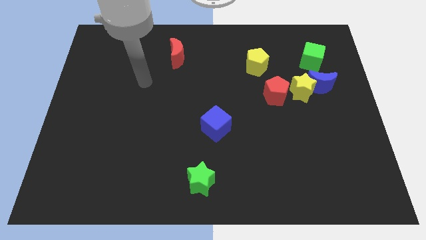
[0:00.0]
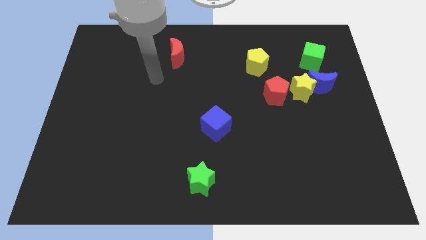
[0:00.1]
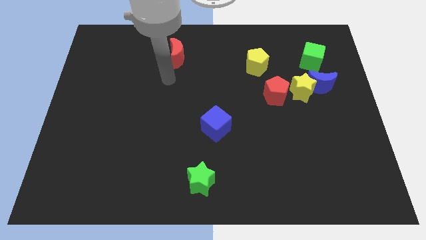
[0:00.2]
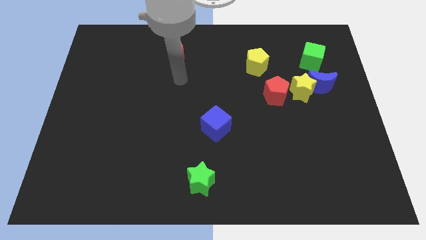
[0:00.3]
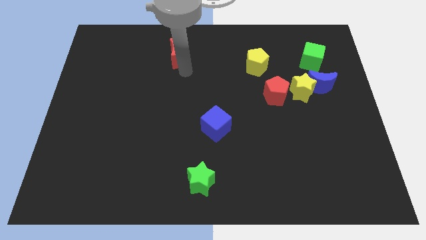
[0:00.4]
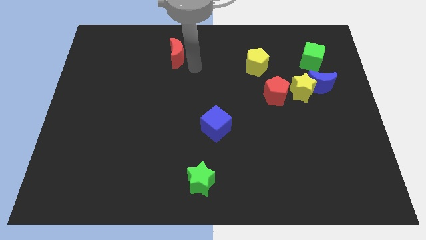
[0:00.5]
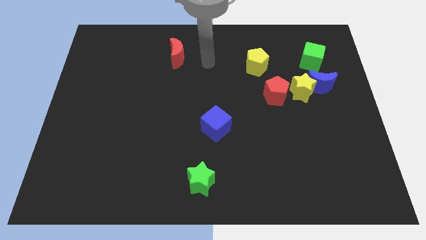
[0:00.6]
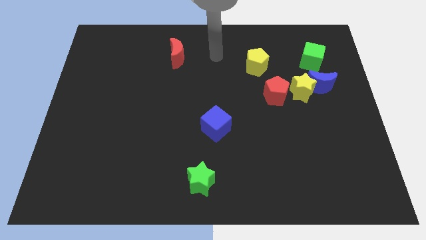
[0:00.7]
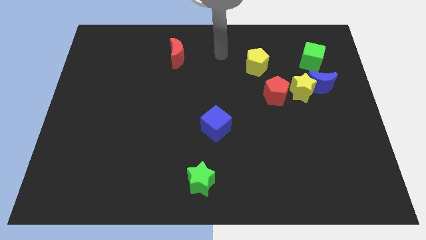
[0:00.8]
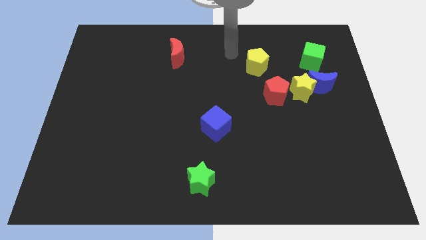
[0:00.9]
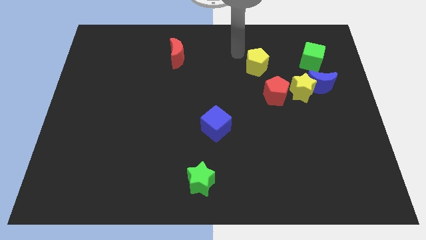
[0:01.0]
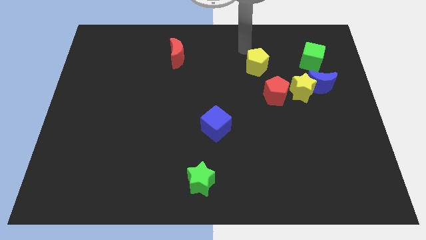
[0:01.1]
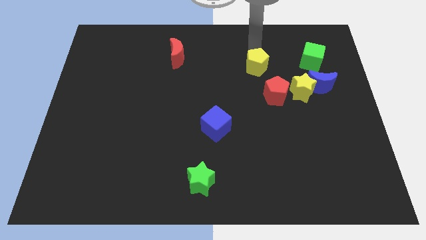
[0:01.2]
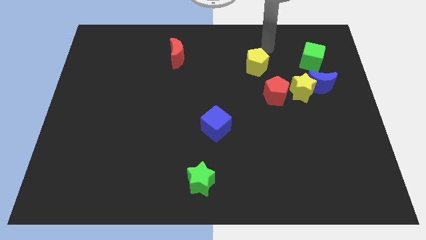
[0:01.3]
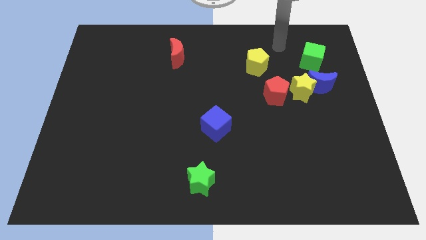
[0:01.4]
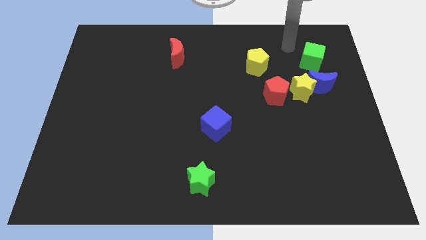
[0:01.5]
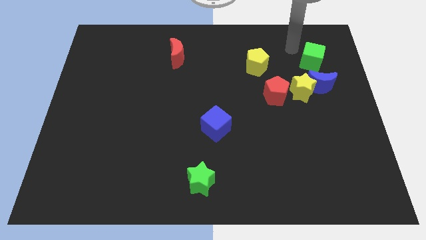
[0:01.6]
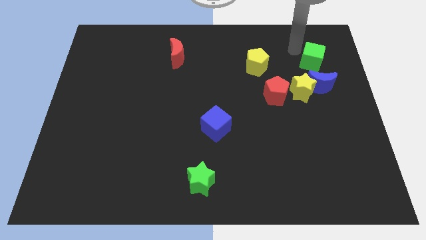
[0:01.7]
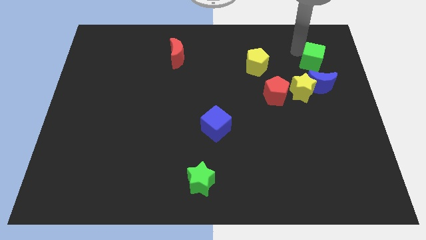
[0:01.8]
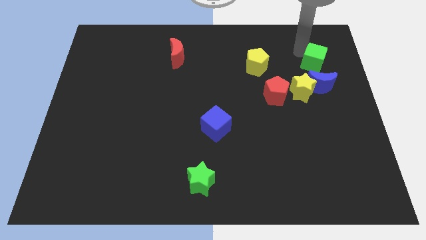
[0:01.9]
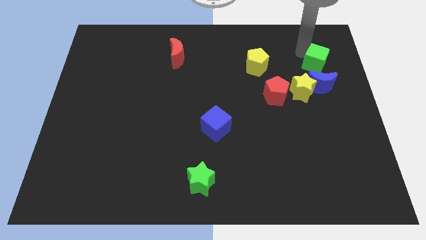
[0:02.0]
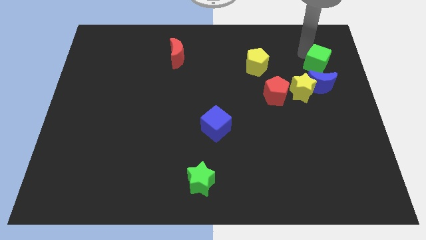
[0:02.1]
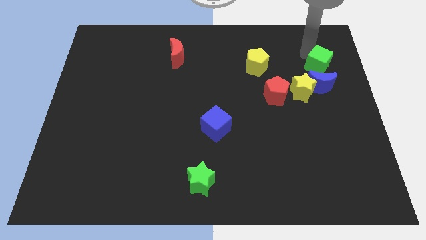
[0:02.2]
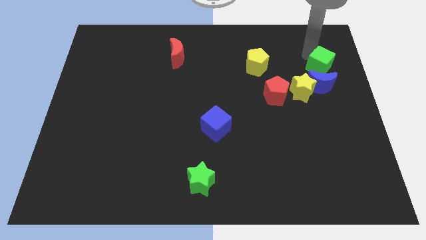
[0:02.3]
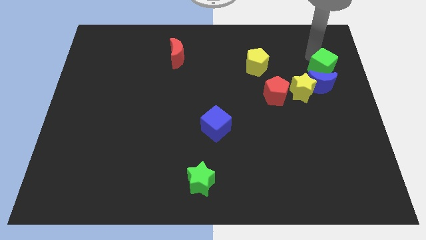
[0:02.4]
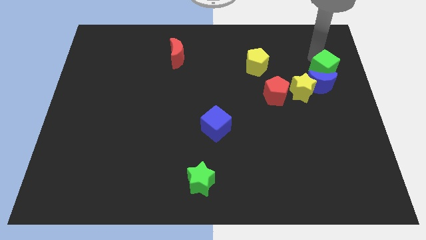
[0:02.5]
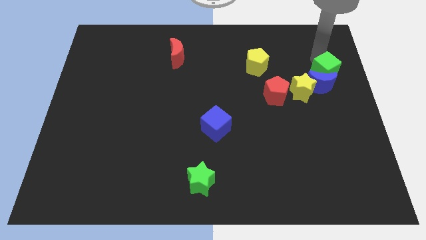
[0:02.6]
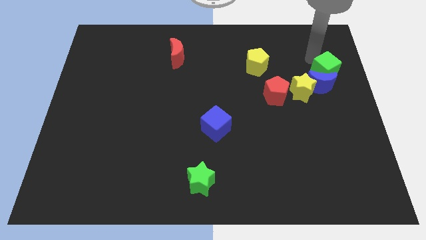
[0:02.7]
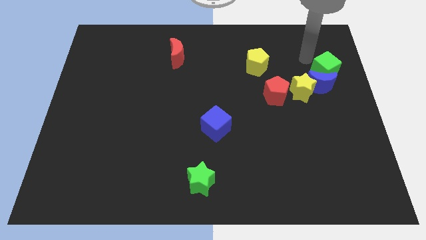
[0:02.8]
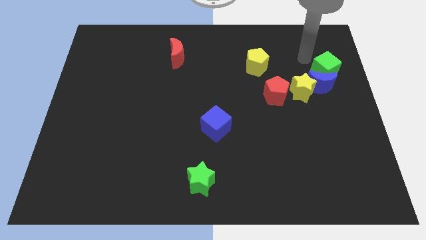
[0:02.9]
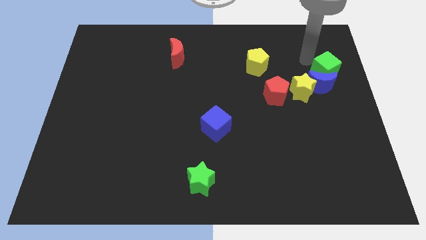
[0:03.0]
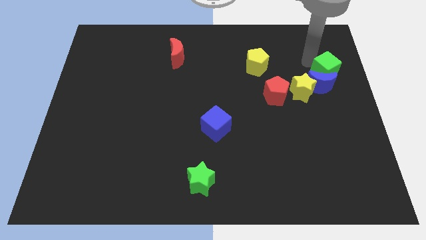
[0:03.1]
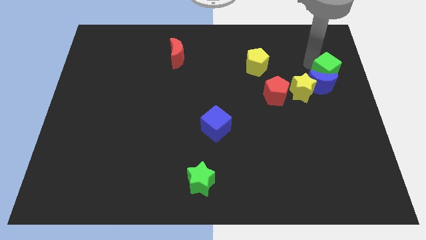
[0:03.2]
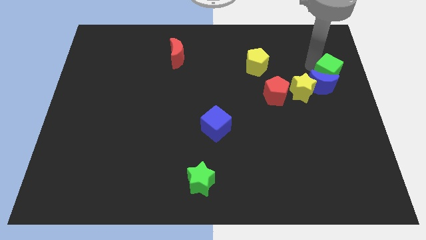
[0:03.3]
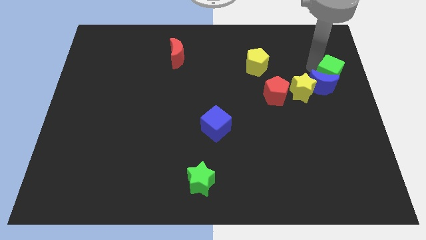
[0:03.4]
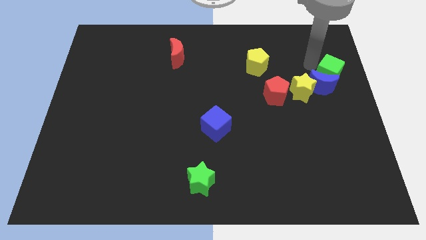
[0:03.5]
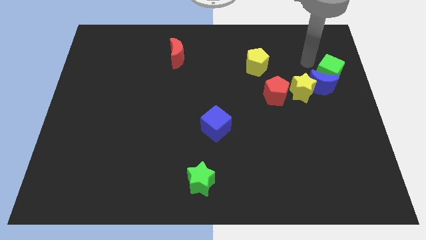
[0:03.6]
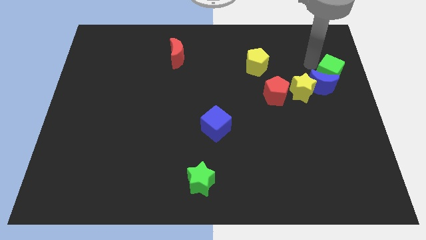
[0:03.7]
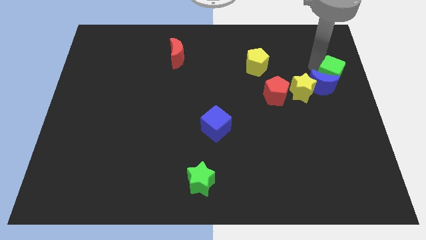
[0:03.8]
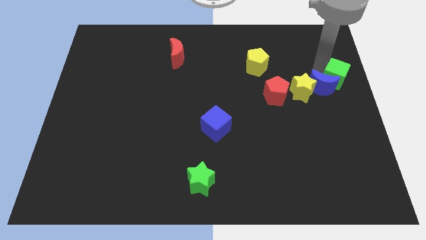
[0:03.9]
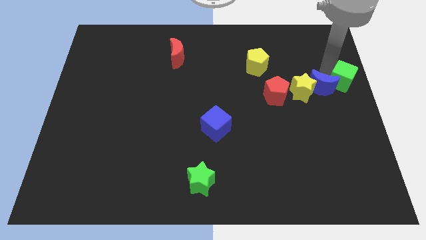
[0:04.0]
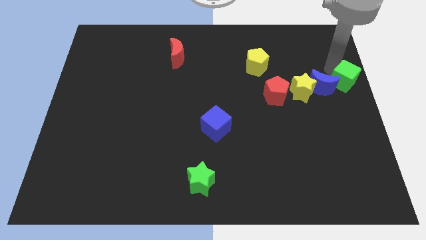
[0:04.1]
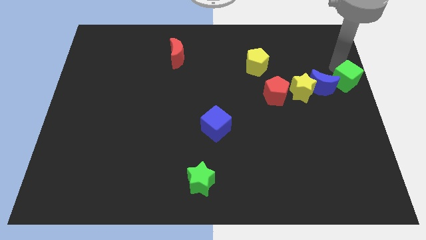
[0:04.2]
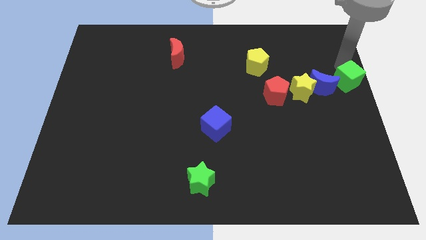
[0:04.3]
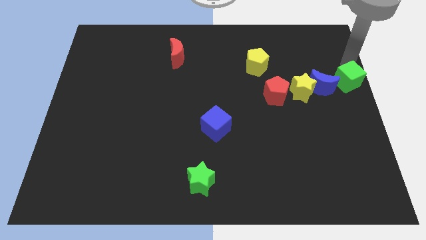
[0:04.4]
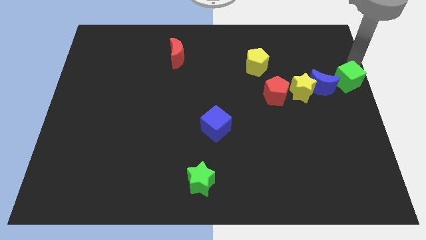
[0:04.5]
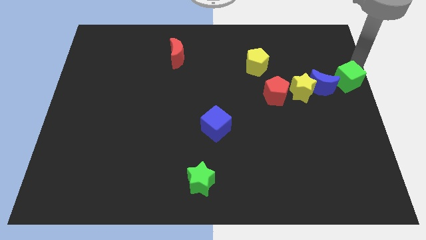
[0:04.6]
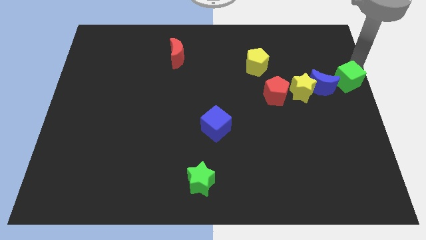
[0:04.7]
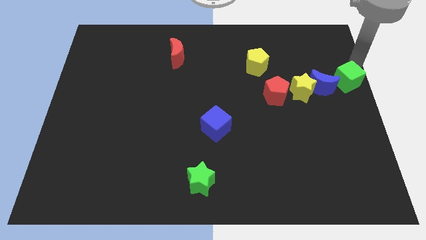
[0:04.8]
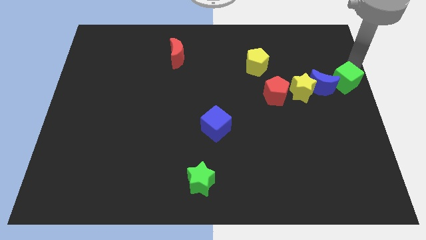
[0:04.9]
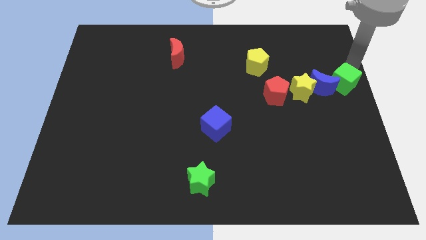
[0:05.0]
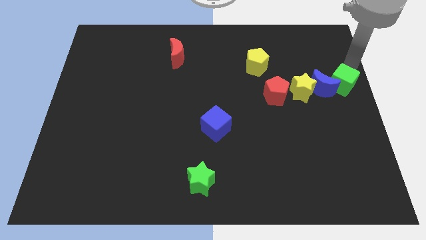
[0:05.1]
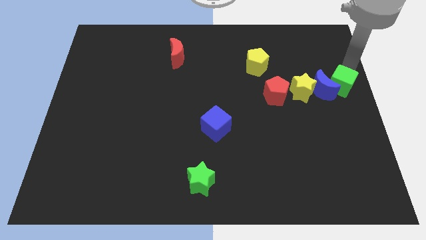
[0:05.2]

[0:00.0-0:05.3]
push the green cube downwards slightly

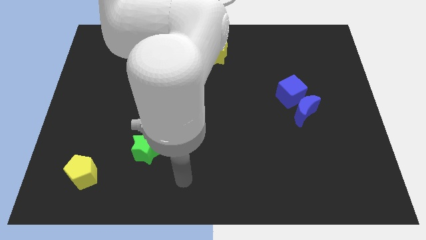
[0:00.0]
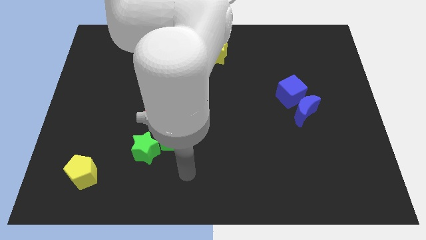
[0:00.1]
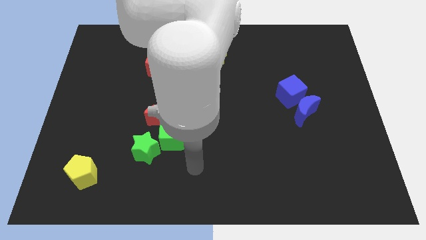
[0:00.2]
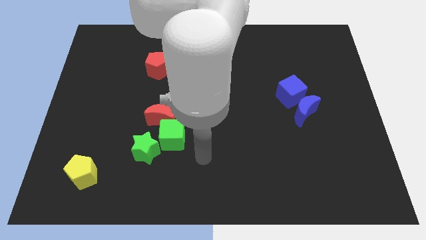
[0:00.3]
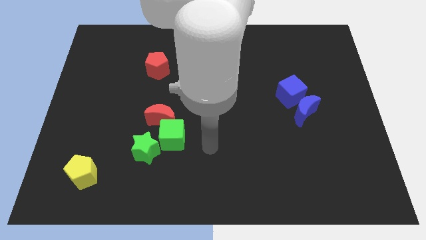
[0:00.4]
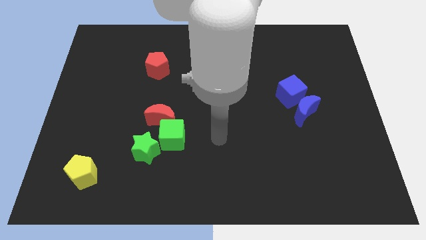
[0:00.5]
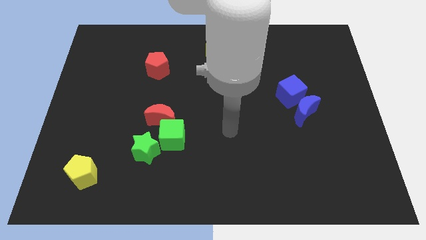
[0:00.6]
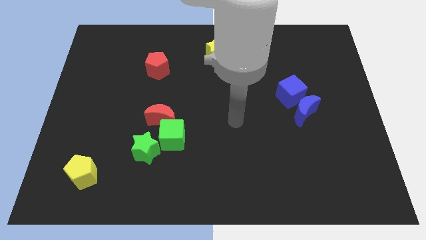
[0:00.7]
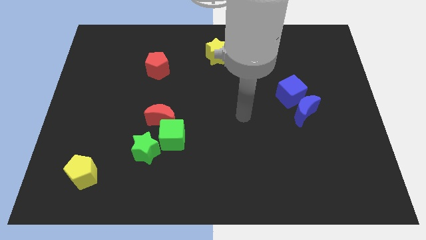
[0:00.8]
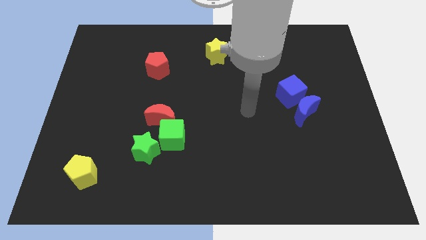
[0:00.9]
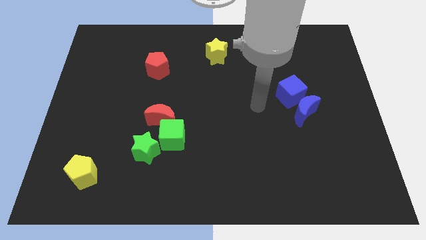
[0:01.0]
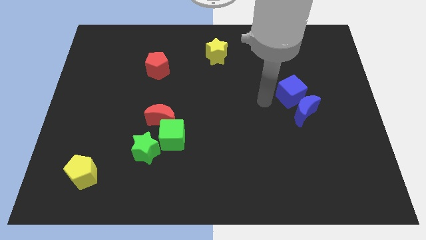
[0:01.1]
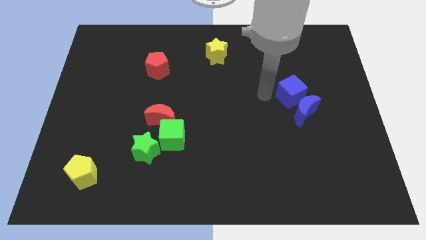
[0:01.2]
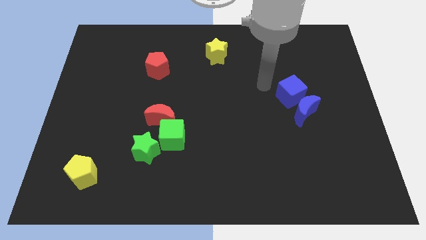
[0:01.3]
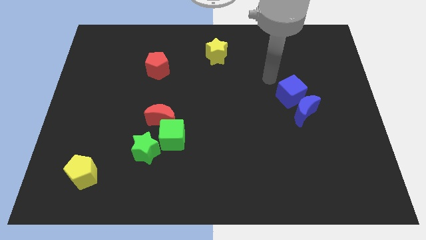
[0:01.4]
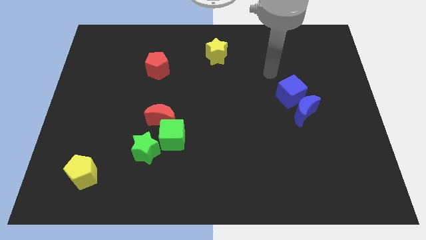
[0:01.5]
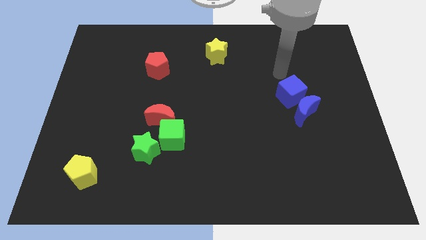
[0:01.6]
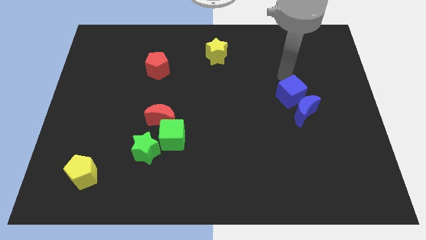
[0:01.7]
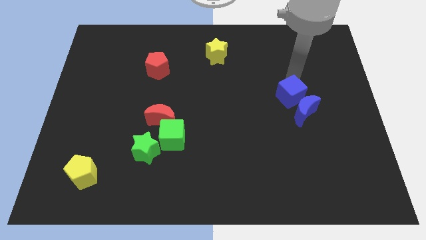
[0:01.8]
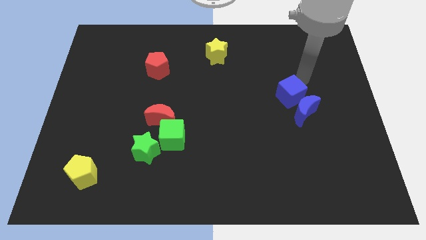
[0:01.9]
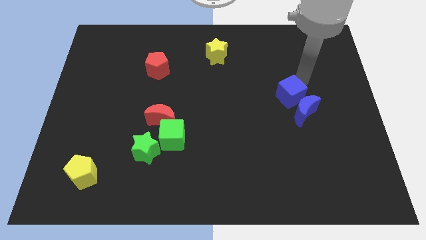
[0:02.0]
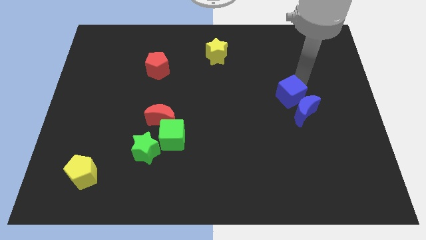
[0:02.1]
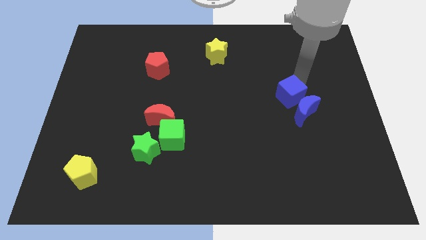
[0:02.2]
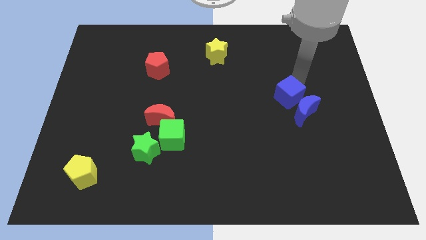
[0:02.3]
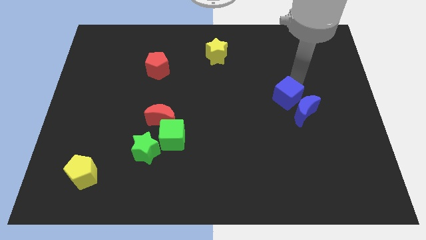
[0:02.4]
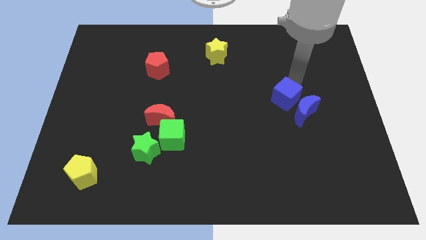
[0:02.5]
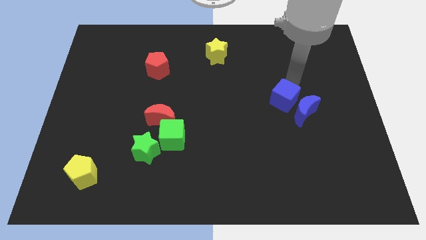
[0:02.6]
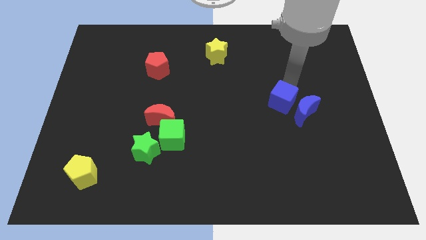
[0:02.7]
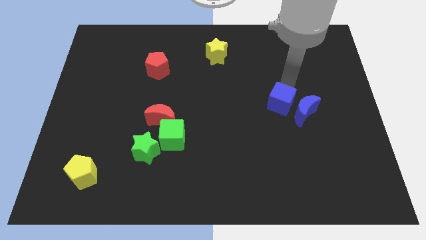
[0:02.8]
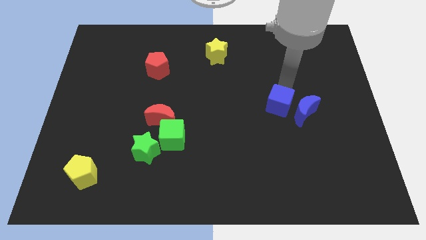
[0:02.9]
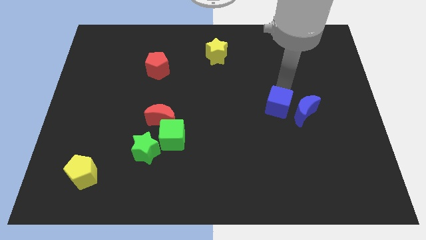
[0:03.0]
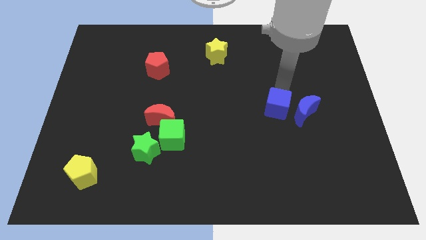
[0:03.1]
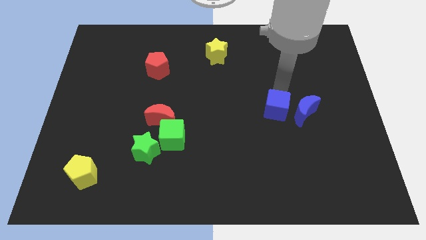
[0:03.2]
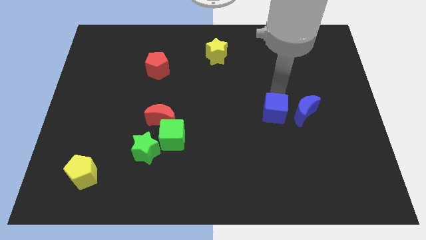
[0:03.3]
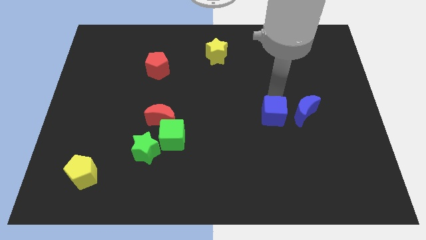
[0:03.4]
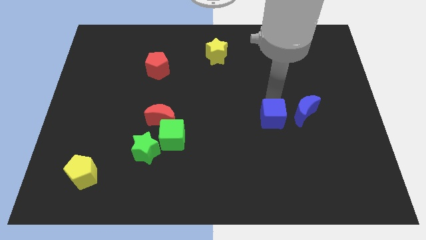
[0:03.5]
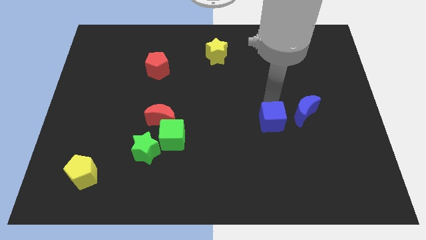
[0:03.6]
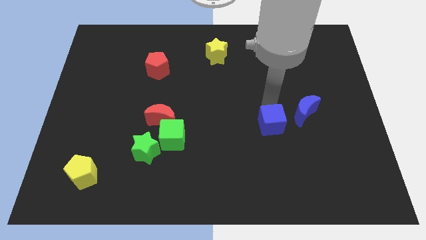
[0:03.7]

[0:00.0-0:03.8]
slightly push the blue cube downwards
